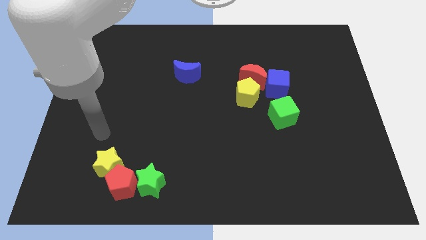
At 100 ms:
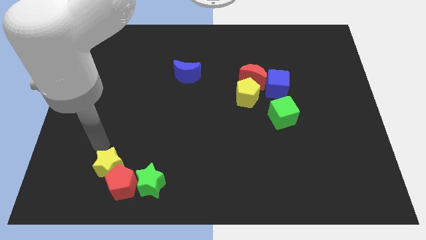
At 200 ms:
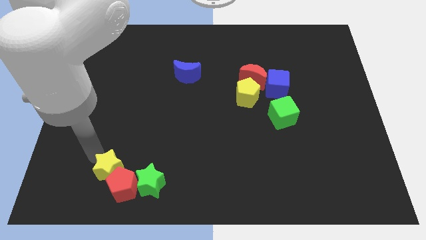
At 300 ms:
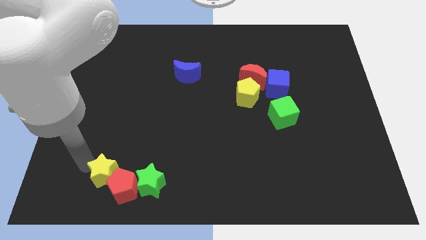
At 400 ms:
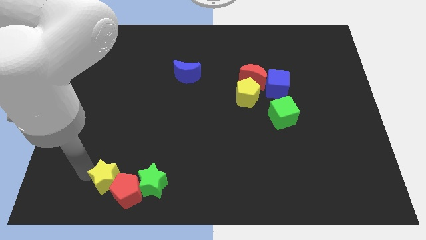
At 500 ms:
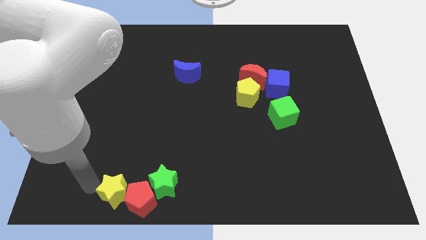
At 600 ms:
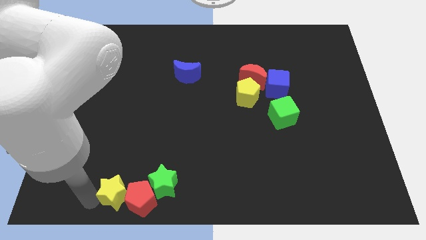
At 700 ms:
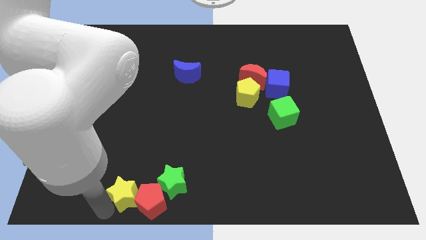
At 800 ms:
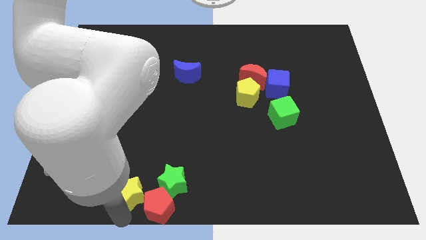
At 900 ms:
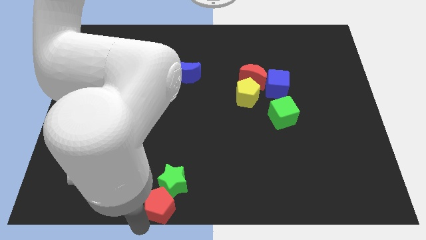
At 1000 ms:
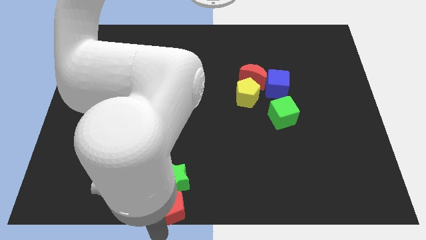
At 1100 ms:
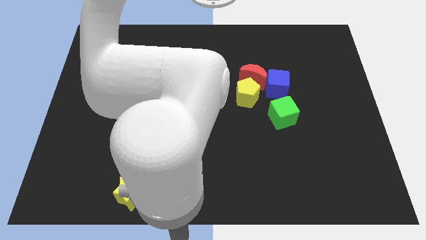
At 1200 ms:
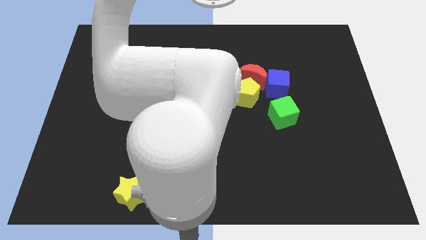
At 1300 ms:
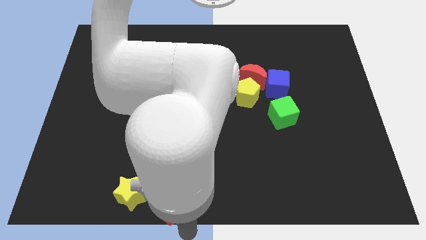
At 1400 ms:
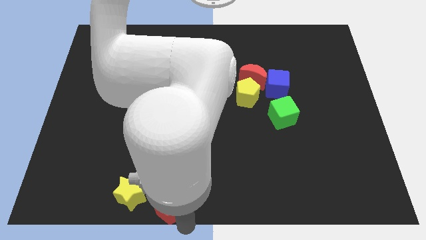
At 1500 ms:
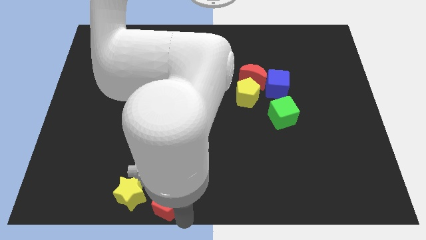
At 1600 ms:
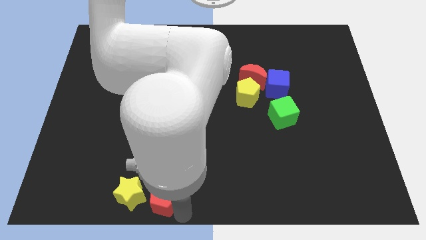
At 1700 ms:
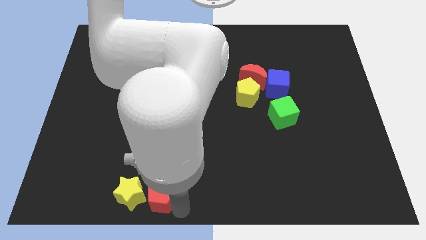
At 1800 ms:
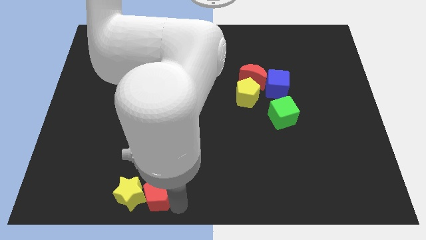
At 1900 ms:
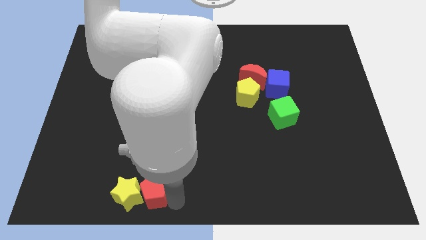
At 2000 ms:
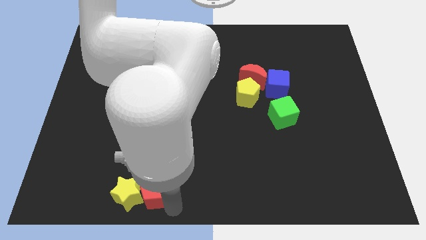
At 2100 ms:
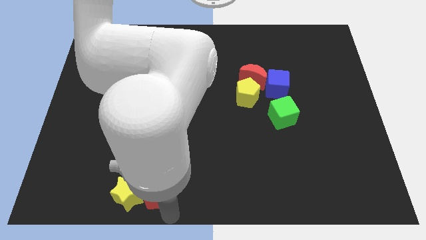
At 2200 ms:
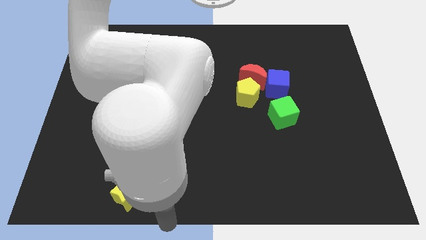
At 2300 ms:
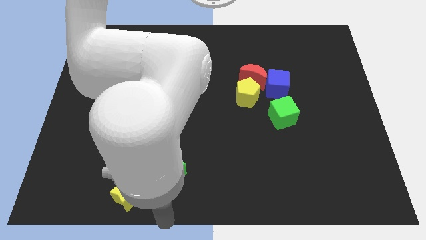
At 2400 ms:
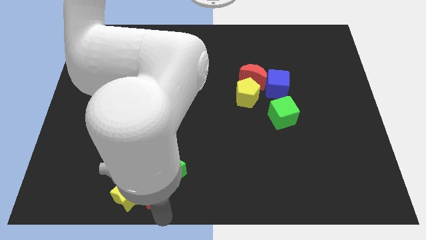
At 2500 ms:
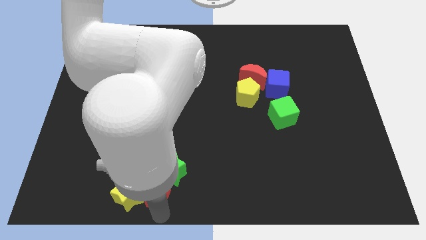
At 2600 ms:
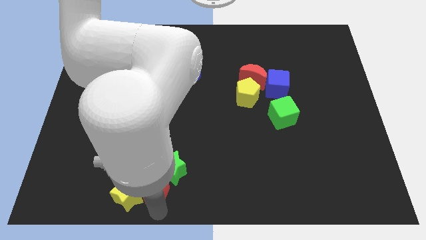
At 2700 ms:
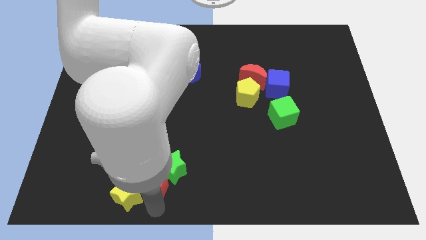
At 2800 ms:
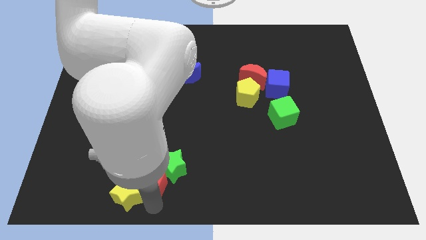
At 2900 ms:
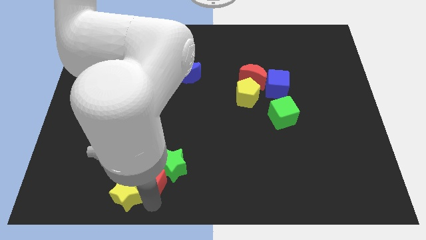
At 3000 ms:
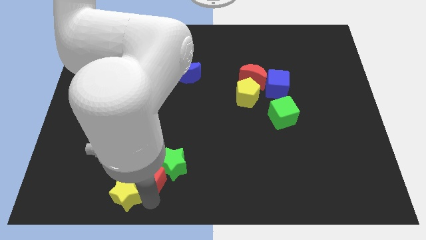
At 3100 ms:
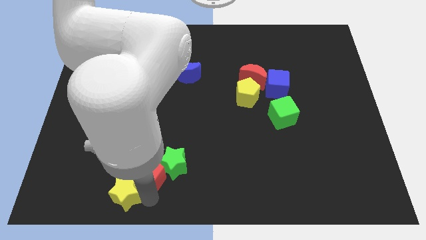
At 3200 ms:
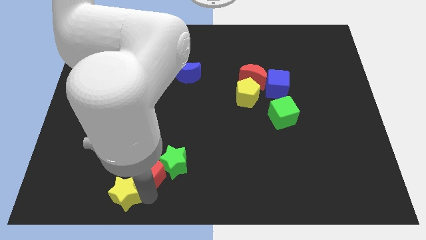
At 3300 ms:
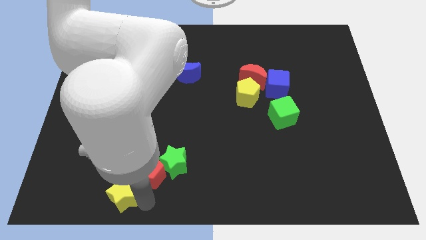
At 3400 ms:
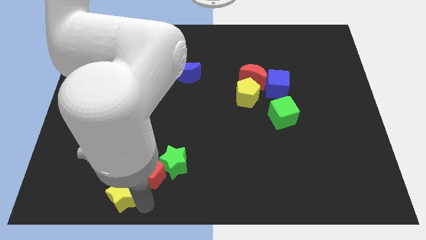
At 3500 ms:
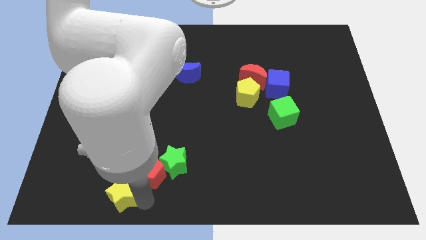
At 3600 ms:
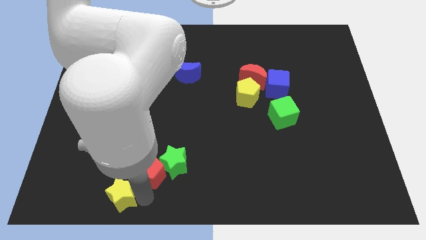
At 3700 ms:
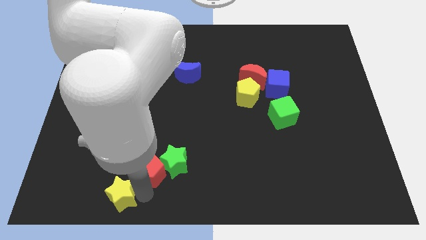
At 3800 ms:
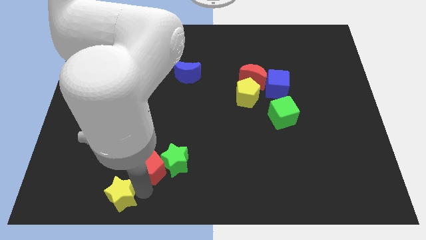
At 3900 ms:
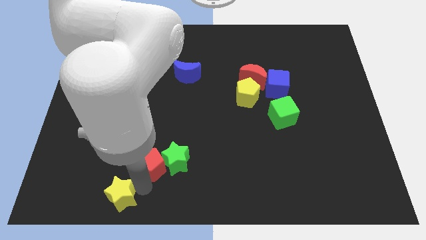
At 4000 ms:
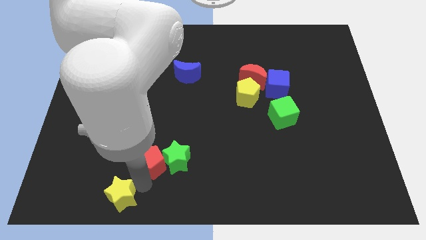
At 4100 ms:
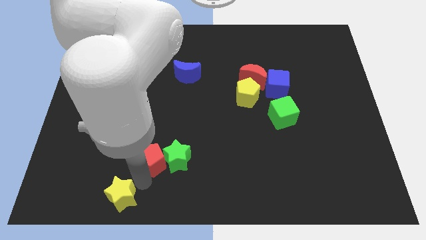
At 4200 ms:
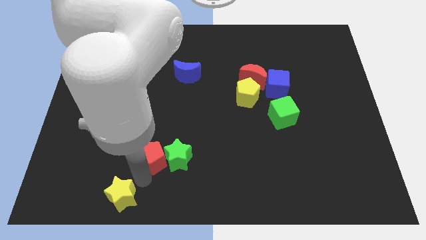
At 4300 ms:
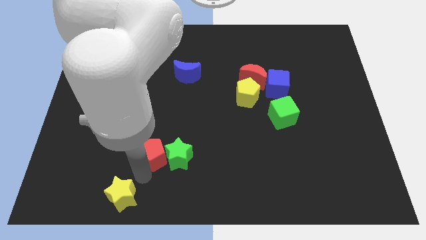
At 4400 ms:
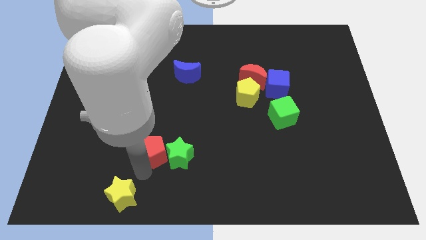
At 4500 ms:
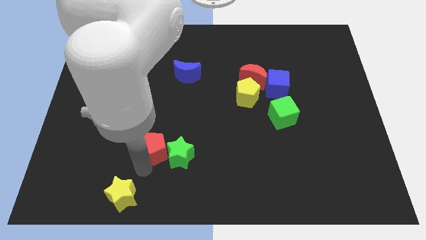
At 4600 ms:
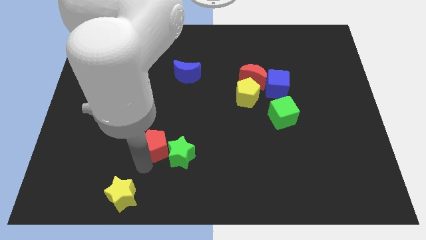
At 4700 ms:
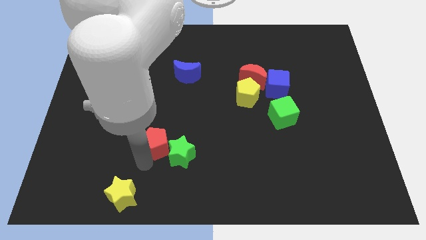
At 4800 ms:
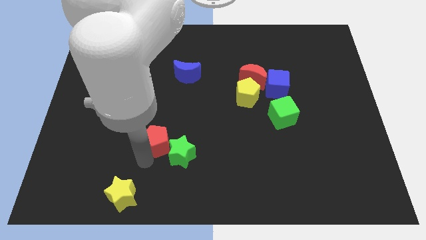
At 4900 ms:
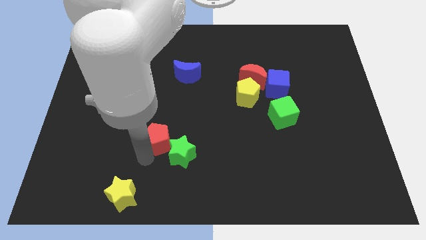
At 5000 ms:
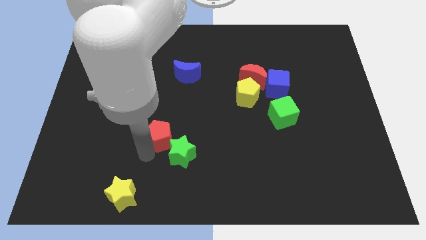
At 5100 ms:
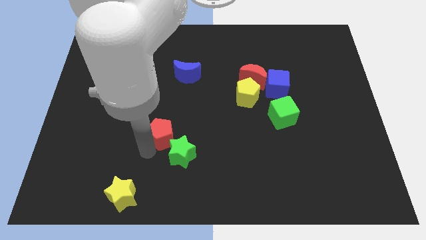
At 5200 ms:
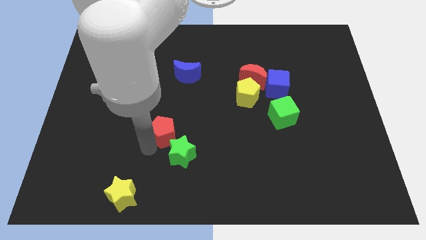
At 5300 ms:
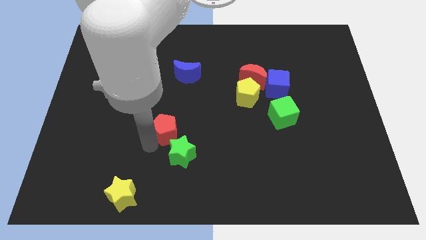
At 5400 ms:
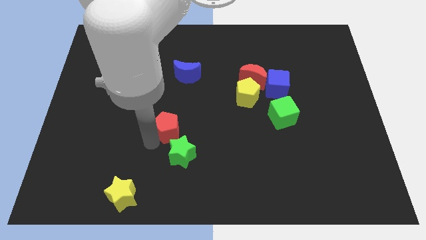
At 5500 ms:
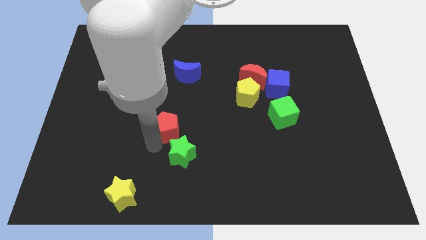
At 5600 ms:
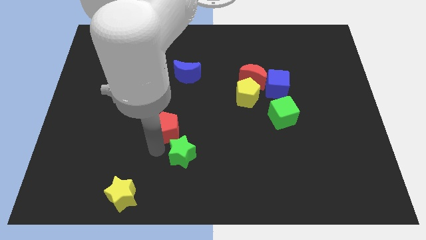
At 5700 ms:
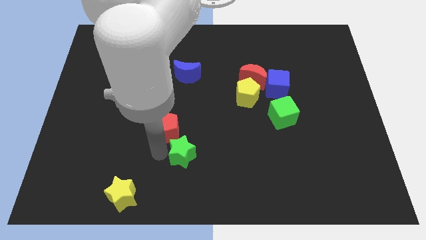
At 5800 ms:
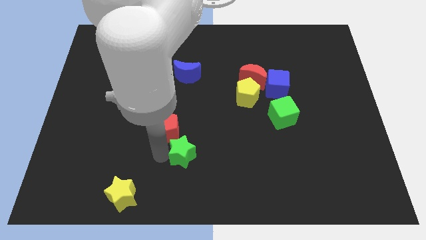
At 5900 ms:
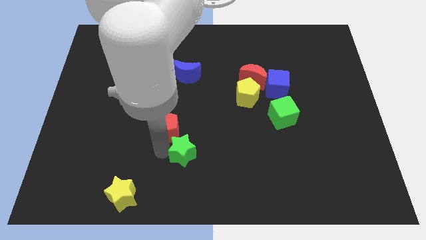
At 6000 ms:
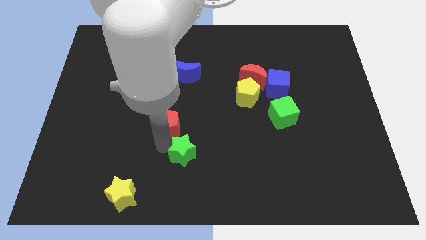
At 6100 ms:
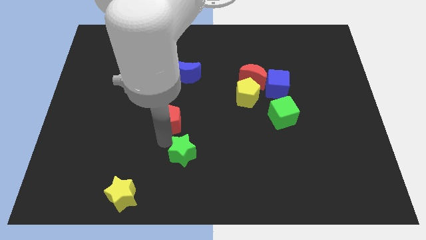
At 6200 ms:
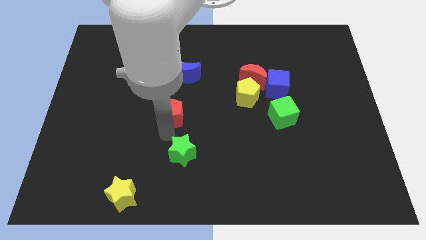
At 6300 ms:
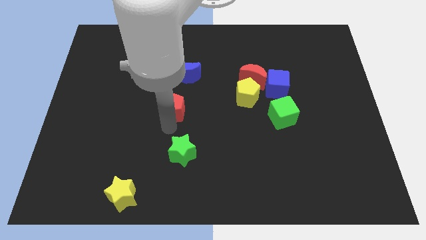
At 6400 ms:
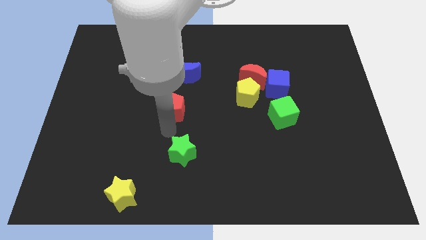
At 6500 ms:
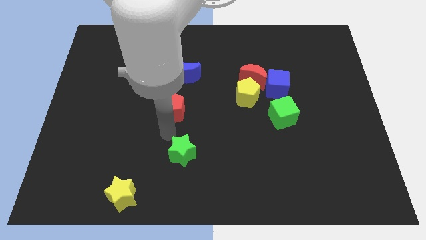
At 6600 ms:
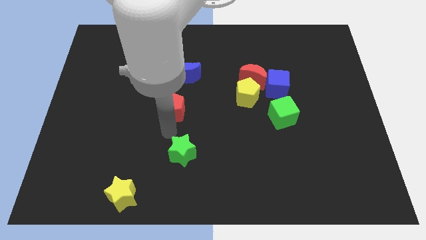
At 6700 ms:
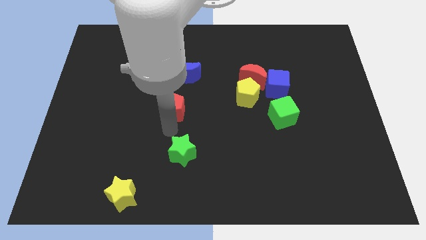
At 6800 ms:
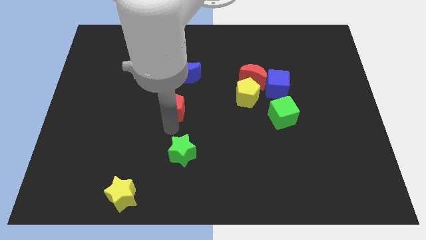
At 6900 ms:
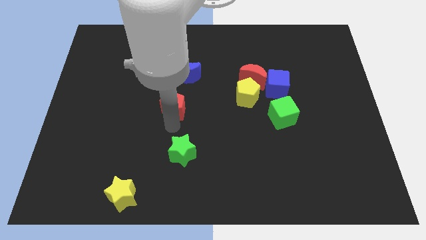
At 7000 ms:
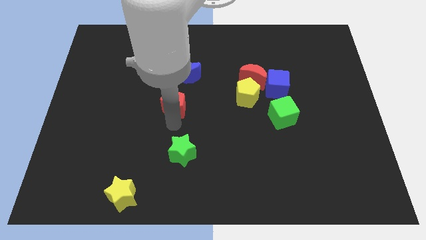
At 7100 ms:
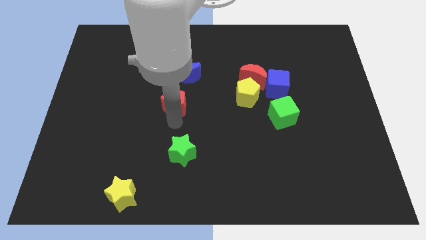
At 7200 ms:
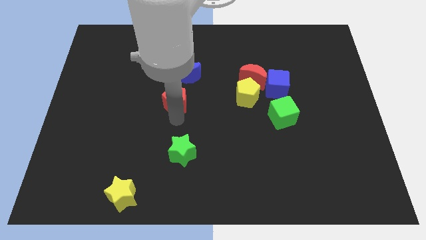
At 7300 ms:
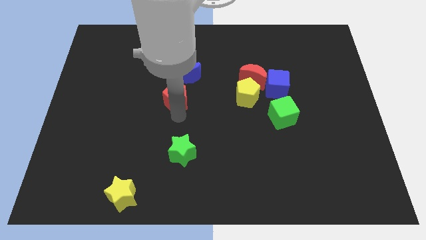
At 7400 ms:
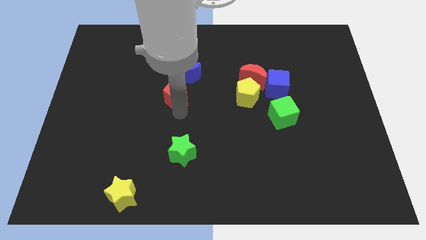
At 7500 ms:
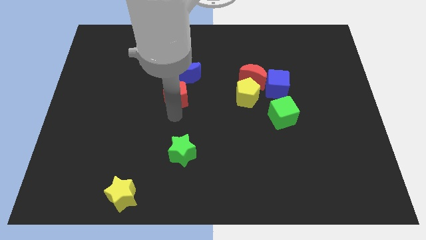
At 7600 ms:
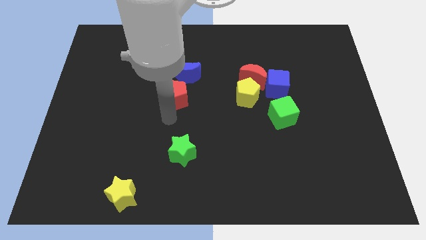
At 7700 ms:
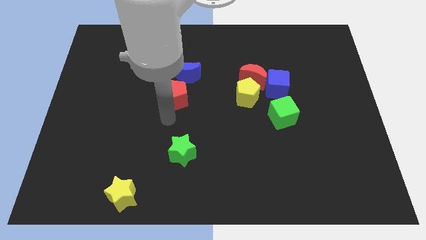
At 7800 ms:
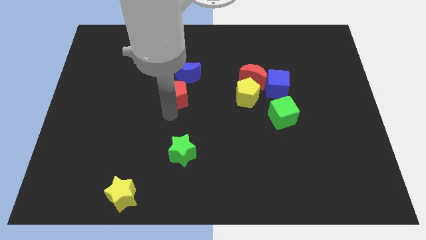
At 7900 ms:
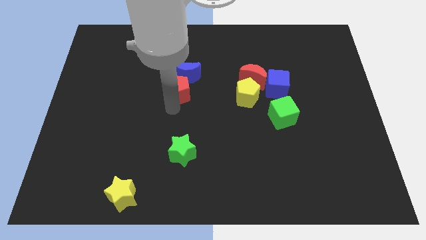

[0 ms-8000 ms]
slide the red pentagon towards the blue moon
